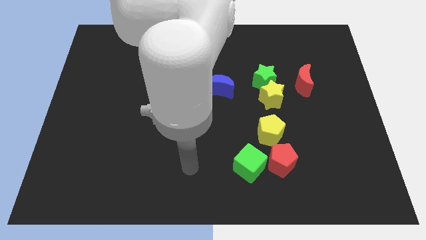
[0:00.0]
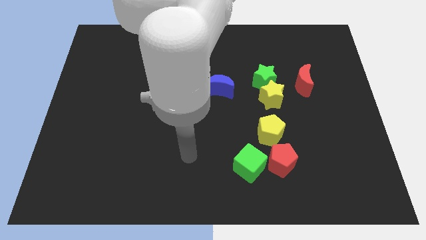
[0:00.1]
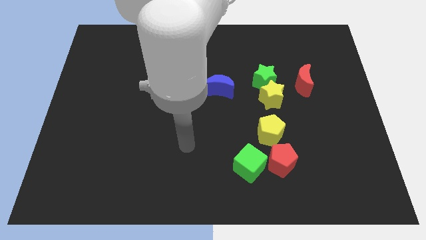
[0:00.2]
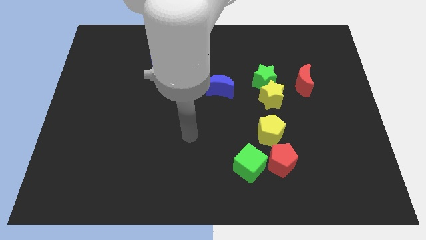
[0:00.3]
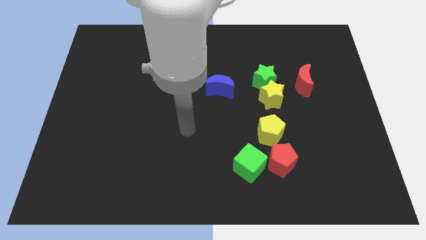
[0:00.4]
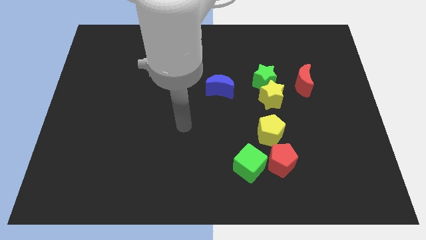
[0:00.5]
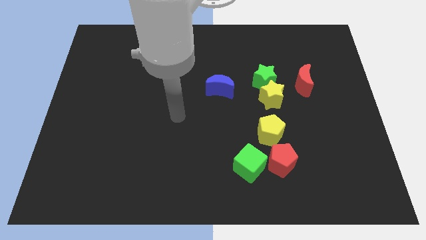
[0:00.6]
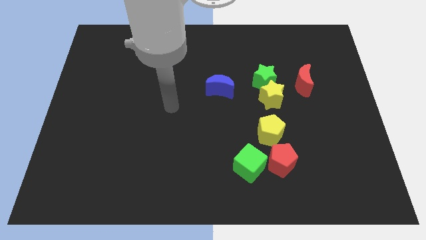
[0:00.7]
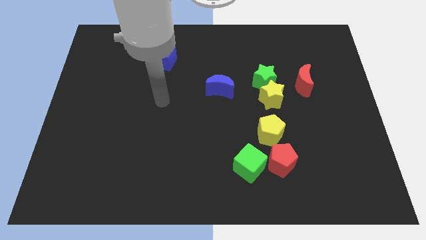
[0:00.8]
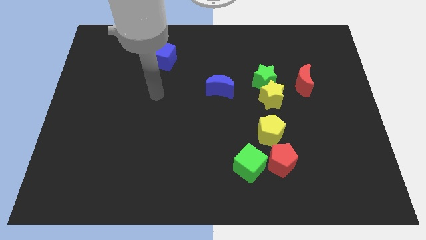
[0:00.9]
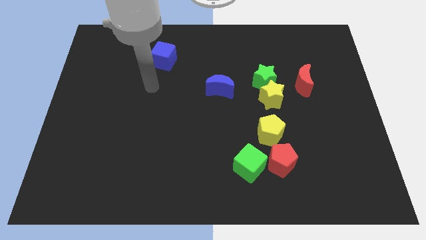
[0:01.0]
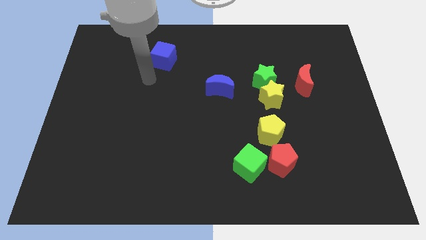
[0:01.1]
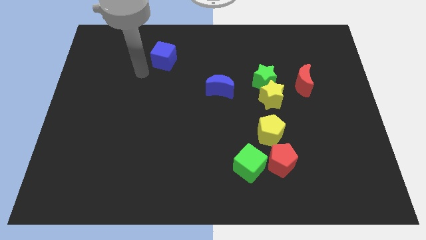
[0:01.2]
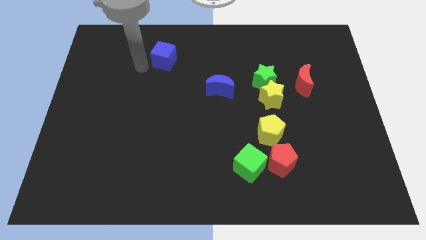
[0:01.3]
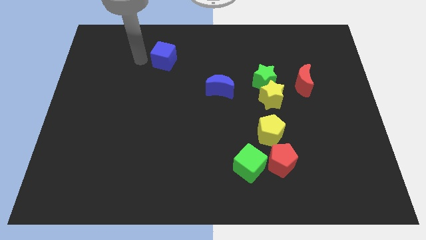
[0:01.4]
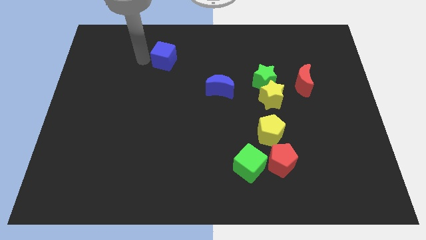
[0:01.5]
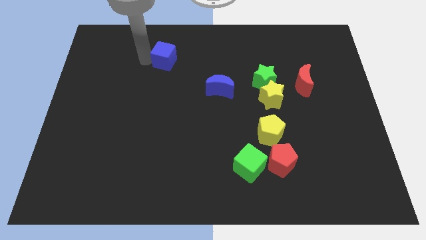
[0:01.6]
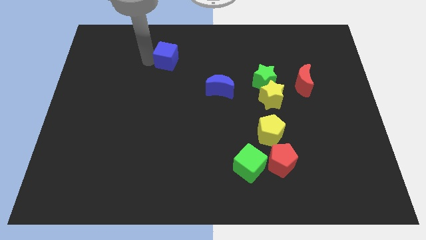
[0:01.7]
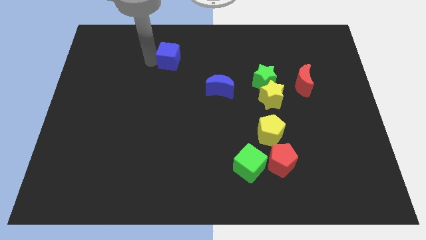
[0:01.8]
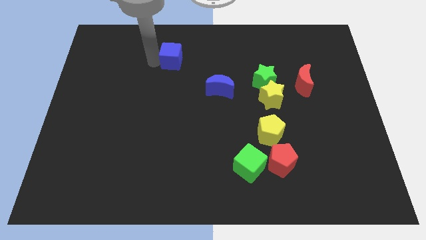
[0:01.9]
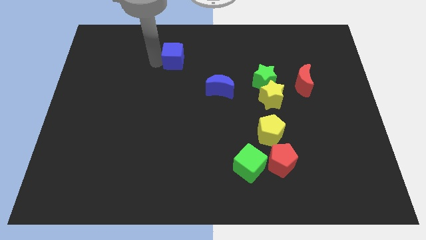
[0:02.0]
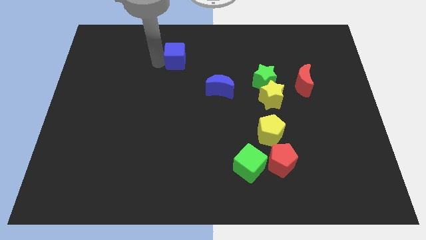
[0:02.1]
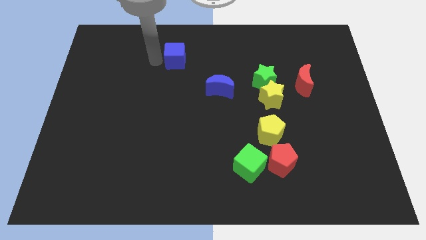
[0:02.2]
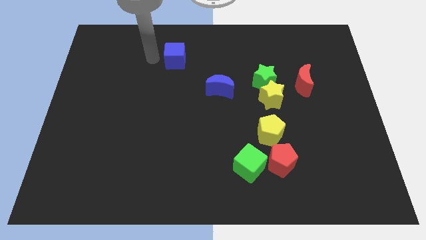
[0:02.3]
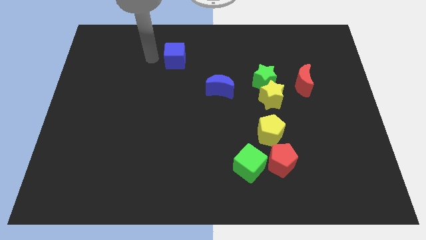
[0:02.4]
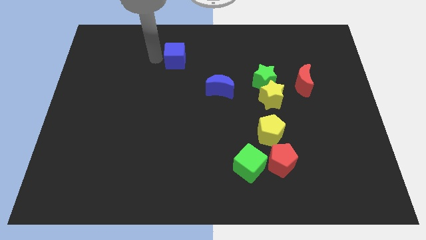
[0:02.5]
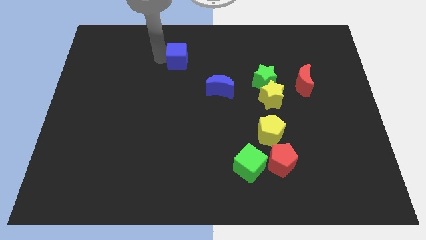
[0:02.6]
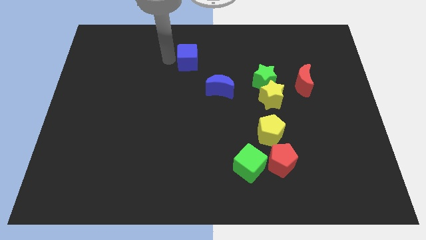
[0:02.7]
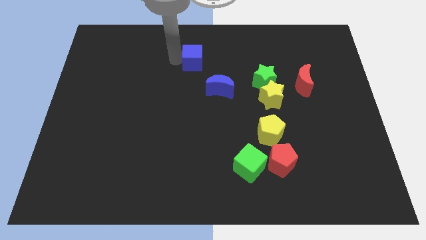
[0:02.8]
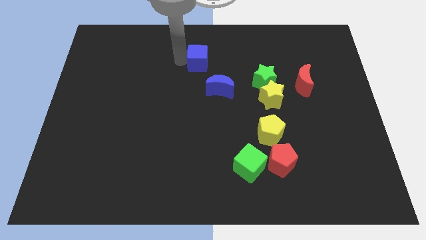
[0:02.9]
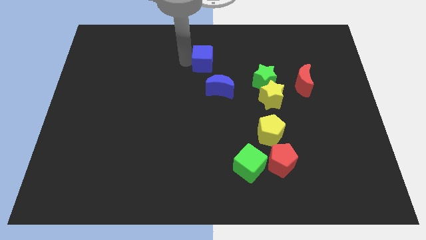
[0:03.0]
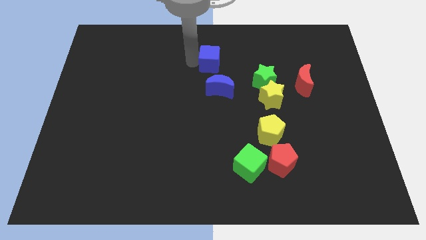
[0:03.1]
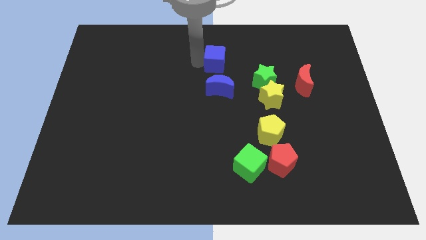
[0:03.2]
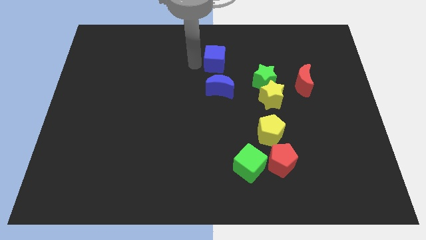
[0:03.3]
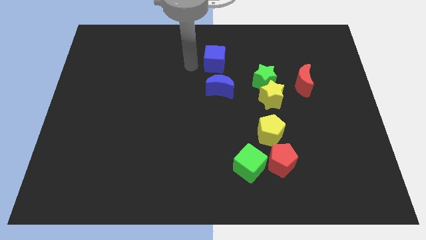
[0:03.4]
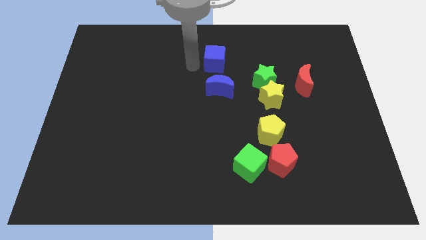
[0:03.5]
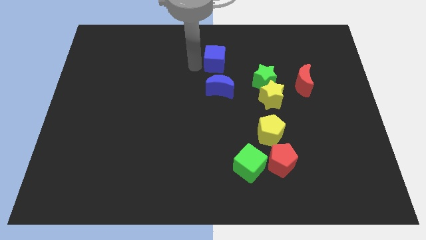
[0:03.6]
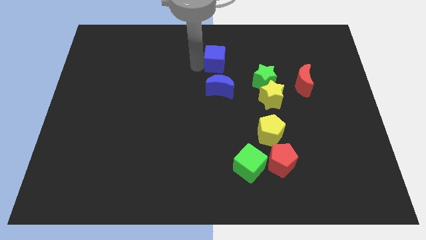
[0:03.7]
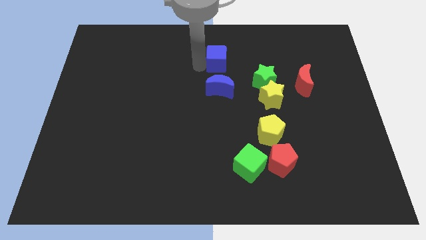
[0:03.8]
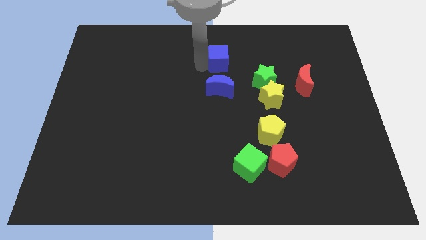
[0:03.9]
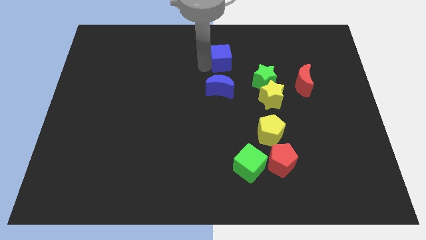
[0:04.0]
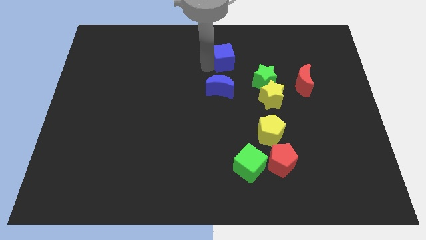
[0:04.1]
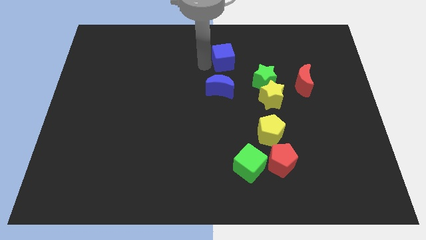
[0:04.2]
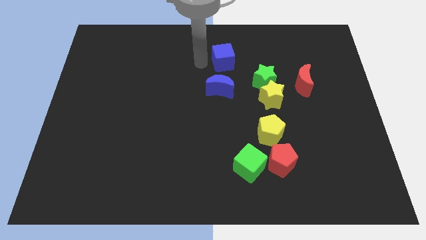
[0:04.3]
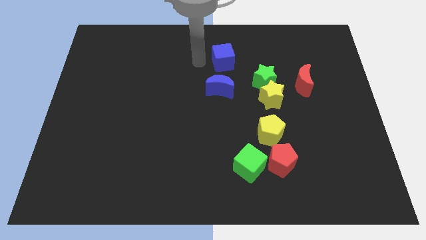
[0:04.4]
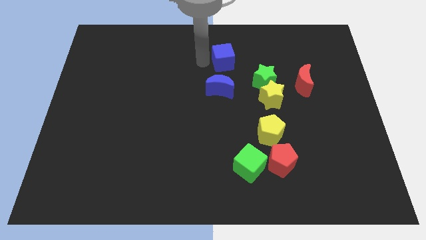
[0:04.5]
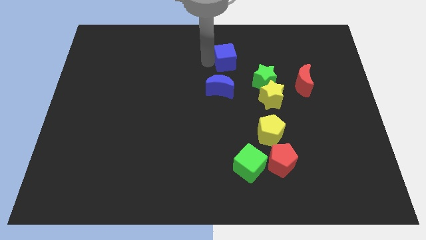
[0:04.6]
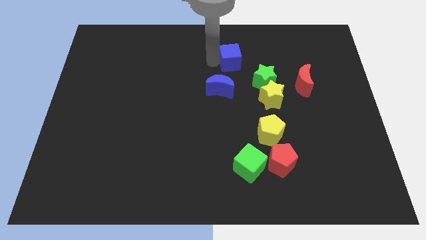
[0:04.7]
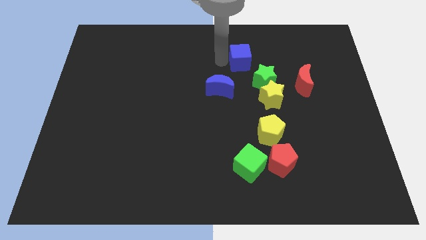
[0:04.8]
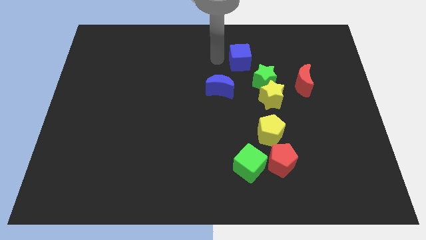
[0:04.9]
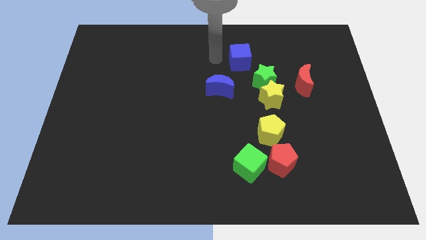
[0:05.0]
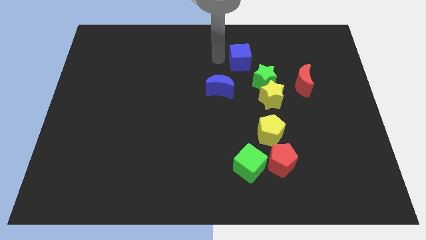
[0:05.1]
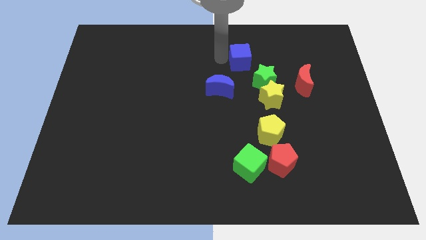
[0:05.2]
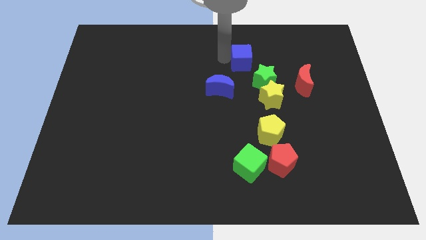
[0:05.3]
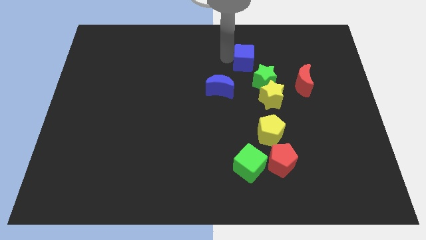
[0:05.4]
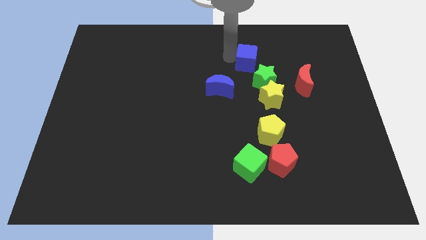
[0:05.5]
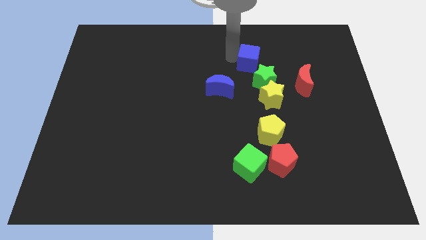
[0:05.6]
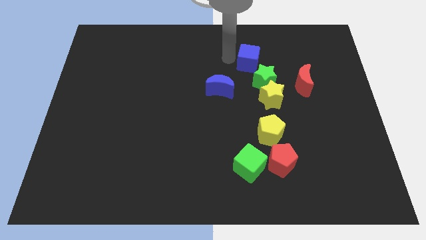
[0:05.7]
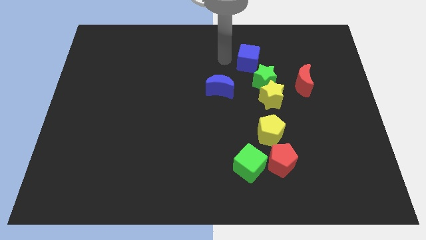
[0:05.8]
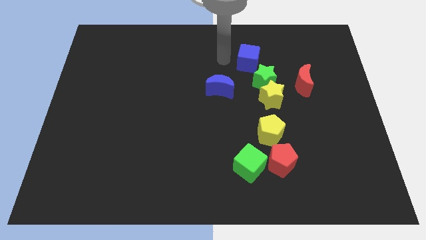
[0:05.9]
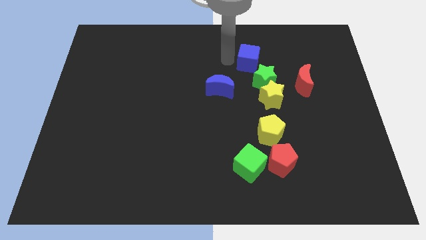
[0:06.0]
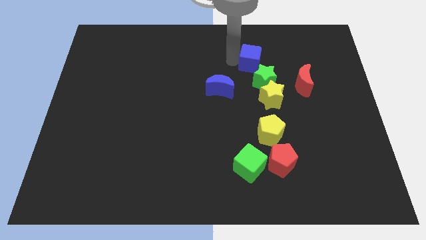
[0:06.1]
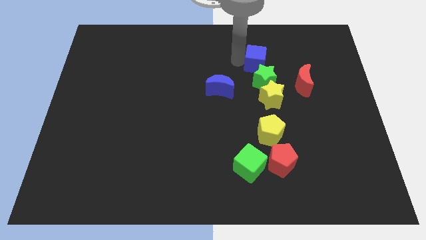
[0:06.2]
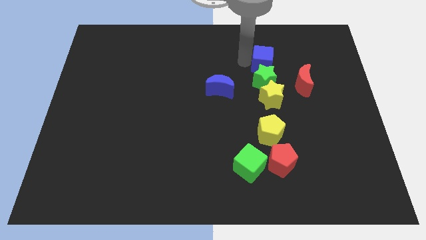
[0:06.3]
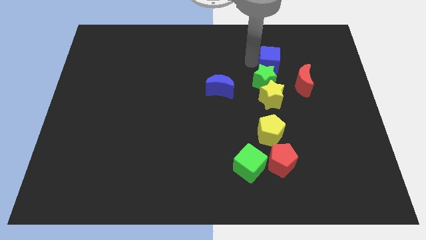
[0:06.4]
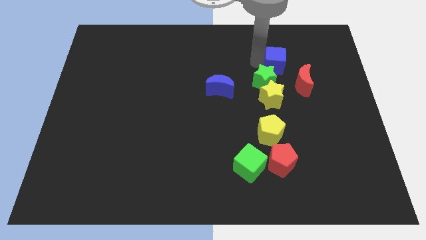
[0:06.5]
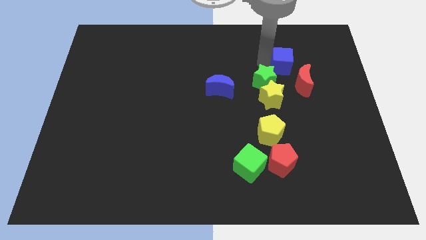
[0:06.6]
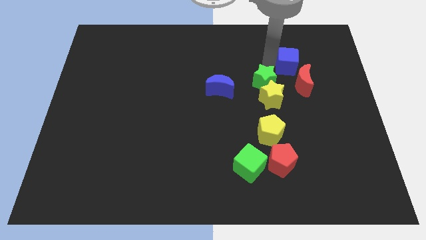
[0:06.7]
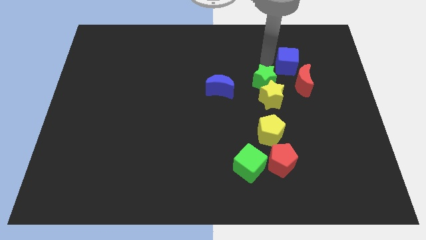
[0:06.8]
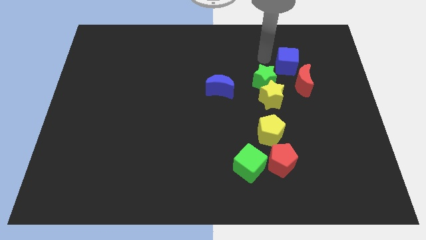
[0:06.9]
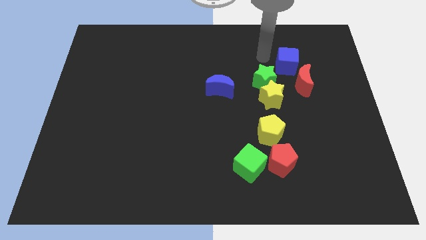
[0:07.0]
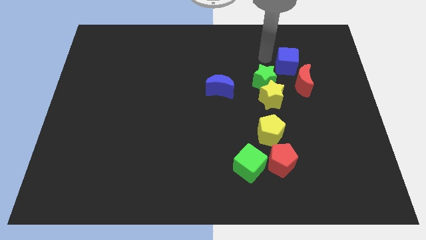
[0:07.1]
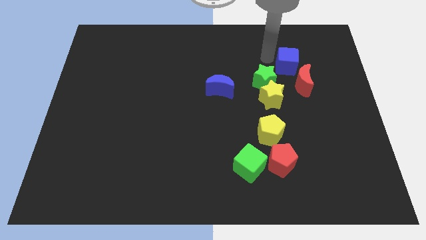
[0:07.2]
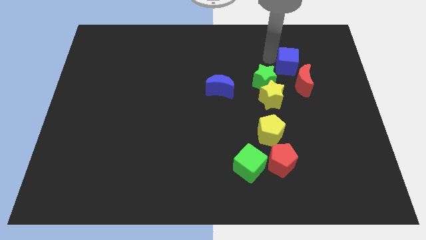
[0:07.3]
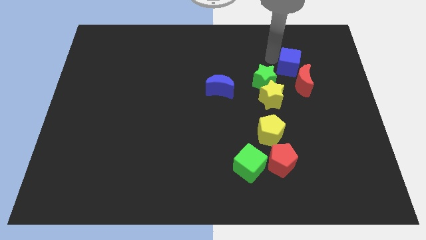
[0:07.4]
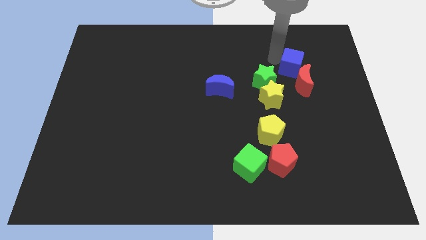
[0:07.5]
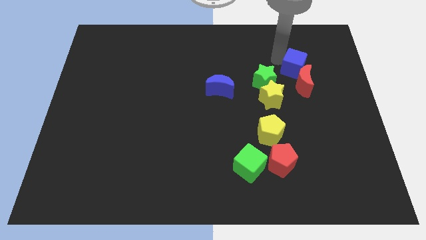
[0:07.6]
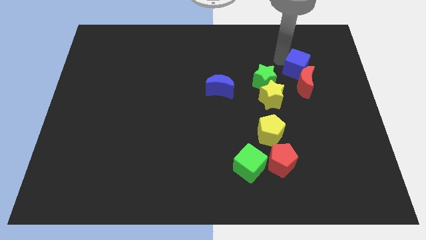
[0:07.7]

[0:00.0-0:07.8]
put the blue cube to the right of the green star

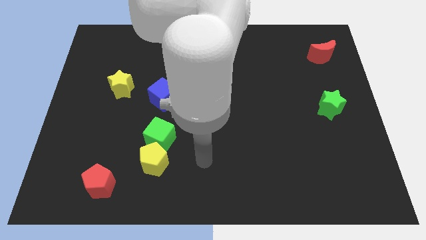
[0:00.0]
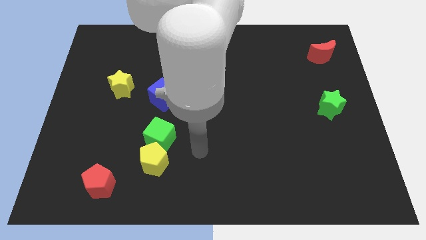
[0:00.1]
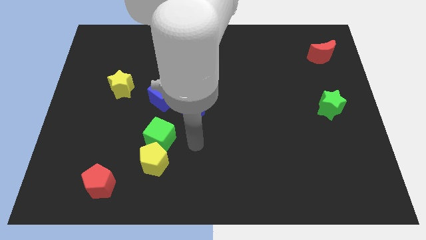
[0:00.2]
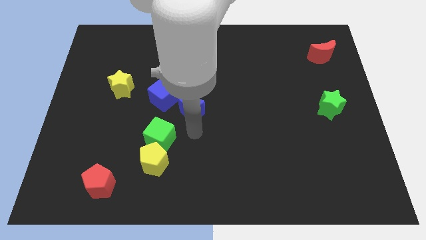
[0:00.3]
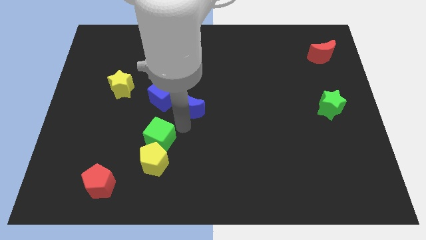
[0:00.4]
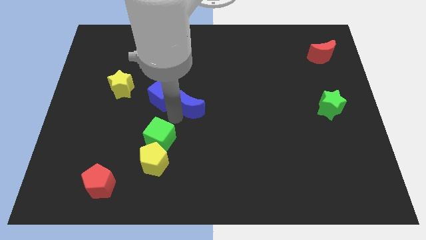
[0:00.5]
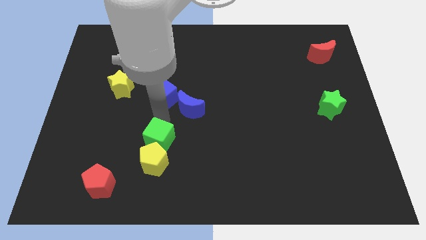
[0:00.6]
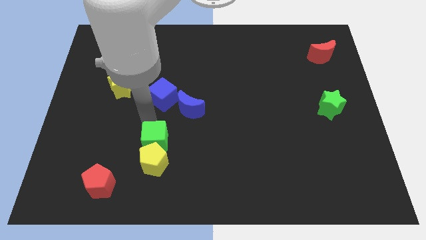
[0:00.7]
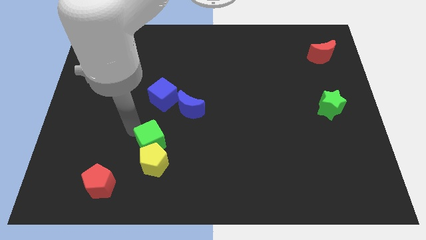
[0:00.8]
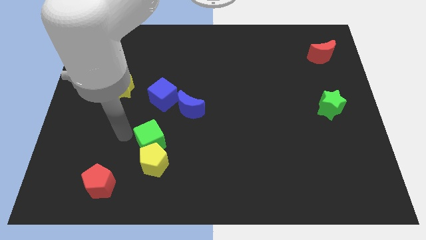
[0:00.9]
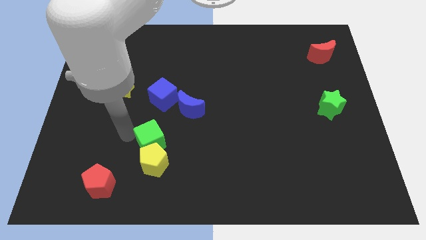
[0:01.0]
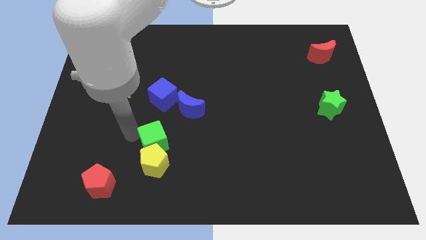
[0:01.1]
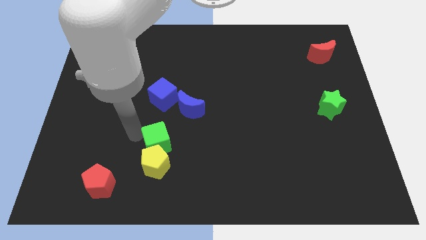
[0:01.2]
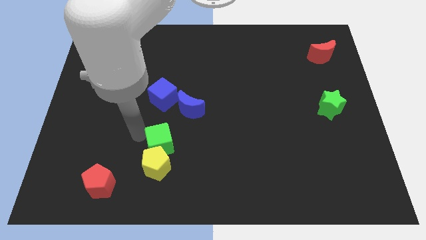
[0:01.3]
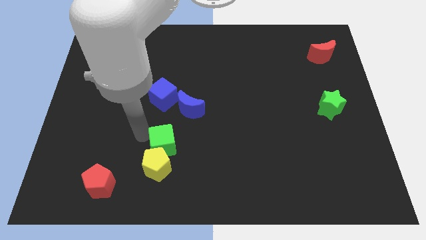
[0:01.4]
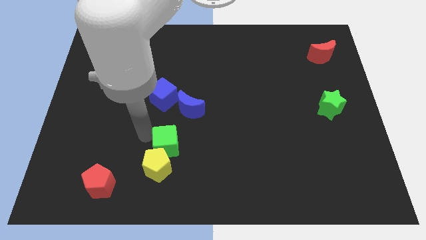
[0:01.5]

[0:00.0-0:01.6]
push the green cube to the bottom of the blue moon
